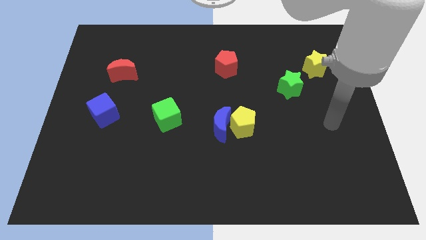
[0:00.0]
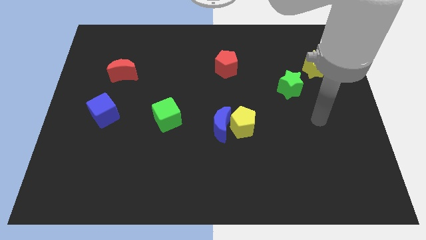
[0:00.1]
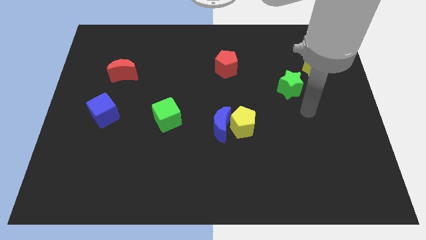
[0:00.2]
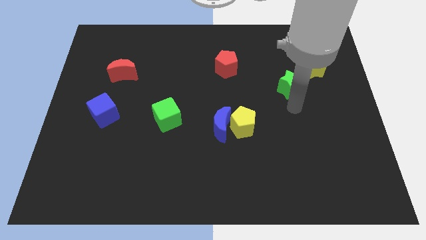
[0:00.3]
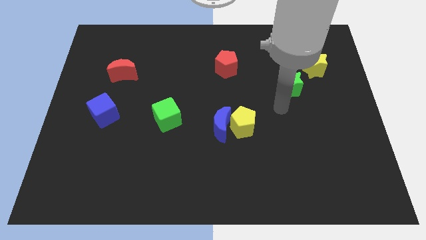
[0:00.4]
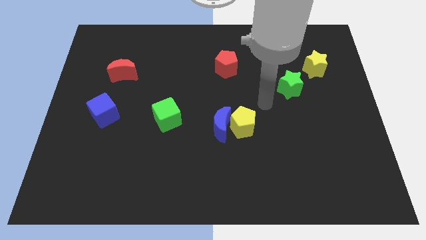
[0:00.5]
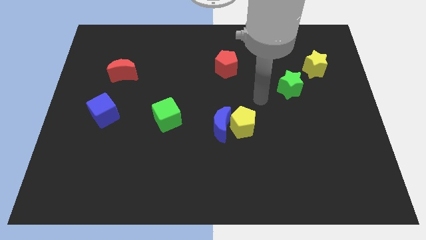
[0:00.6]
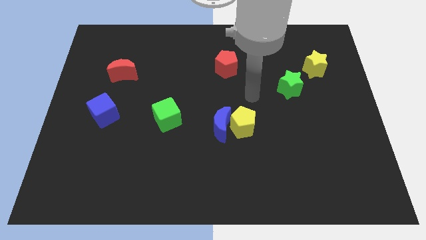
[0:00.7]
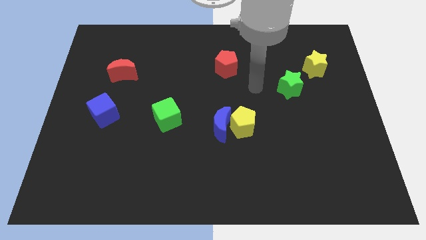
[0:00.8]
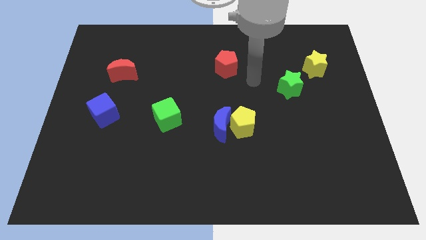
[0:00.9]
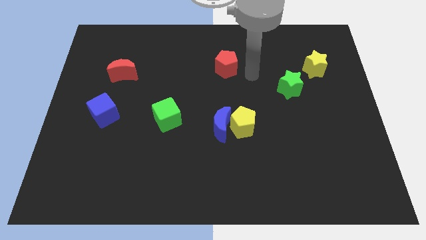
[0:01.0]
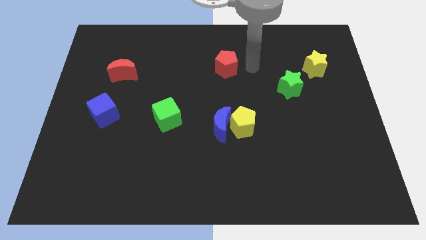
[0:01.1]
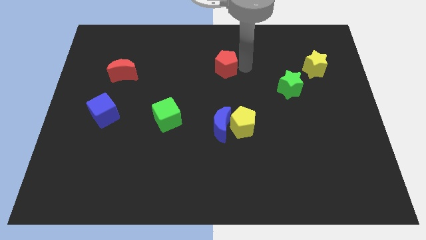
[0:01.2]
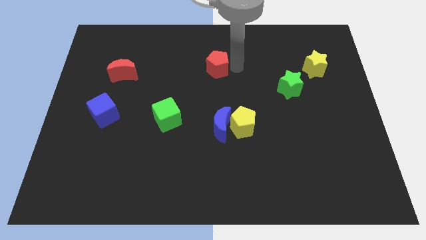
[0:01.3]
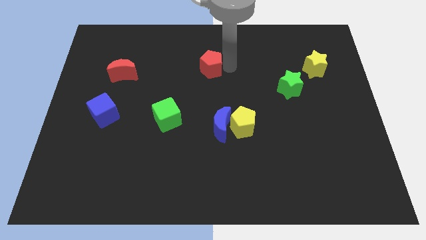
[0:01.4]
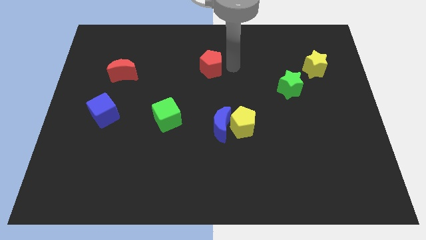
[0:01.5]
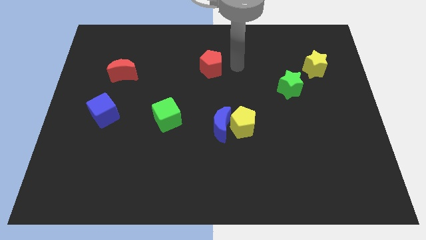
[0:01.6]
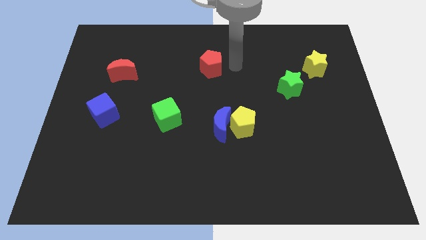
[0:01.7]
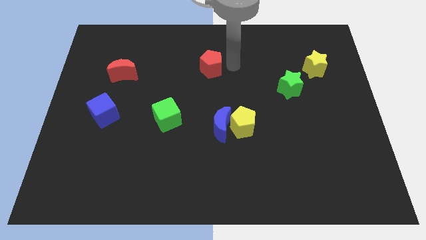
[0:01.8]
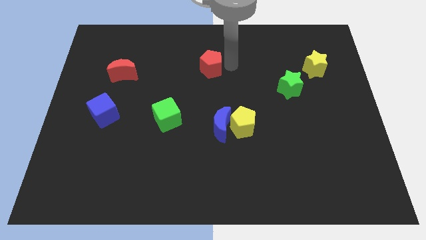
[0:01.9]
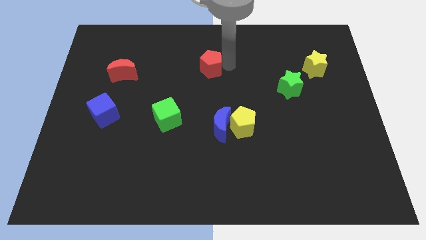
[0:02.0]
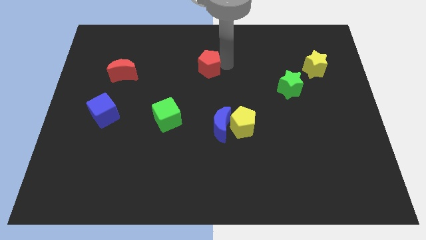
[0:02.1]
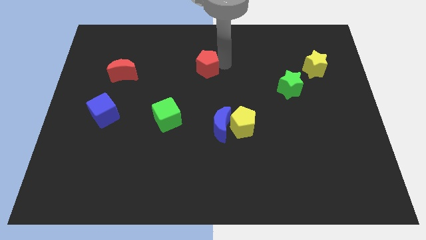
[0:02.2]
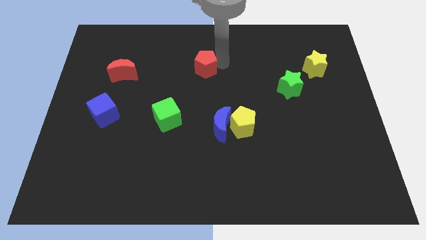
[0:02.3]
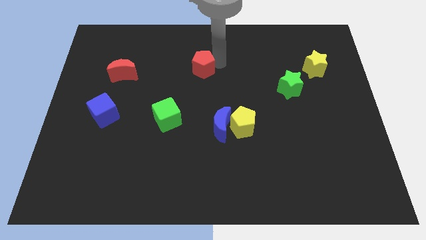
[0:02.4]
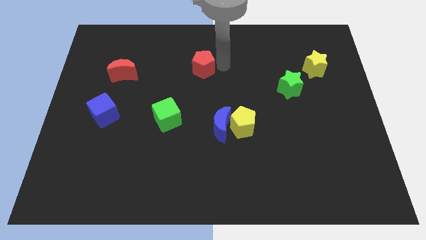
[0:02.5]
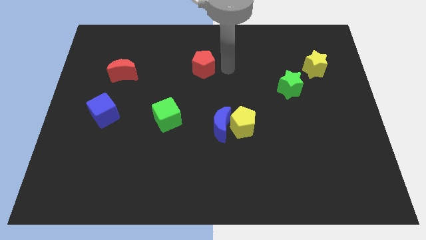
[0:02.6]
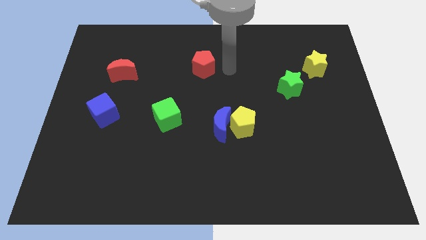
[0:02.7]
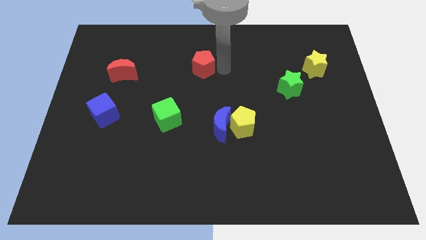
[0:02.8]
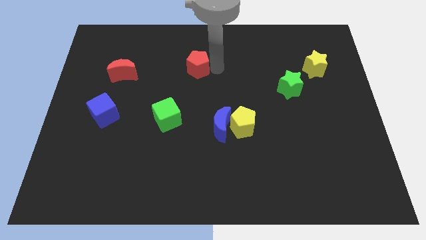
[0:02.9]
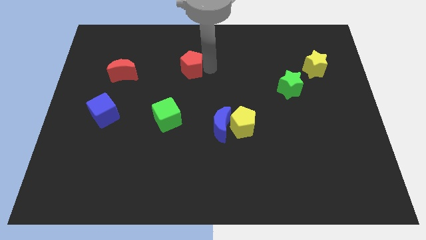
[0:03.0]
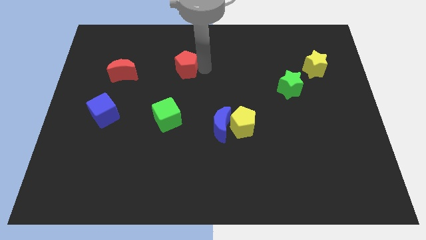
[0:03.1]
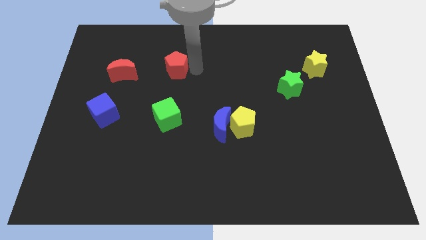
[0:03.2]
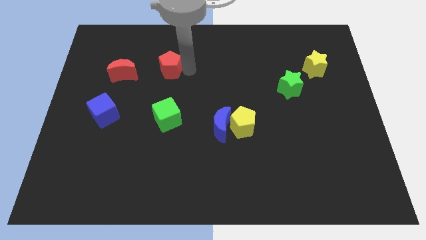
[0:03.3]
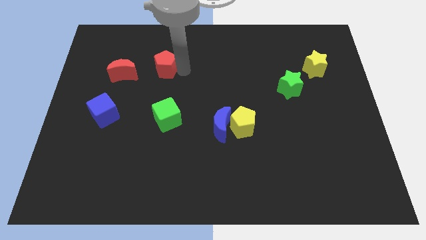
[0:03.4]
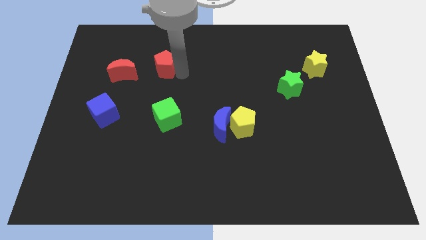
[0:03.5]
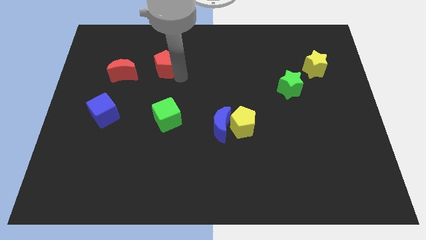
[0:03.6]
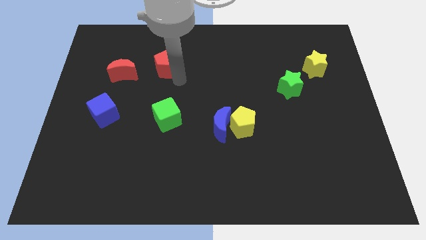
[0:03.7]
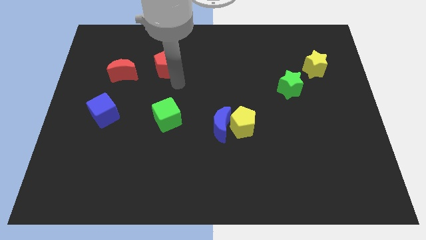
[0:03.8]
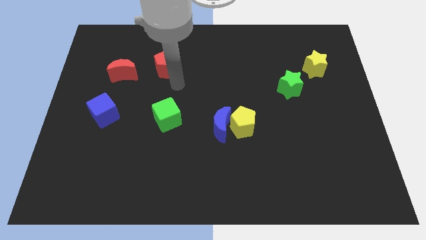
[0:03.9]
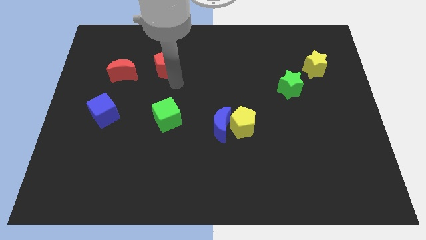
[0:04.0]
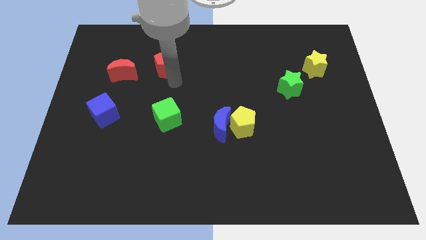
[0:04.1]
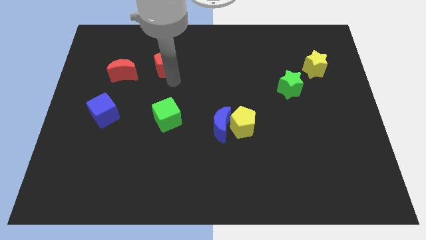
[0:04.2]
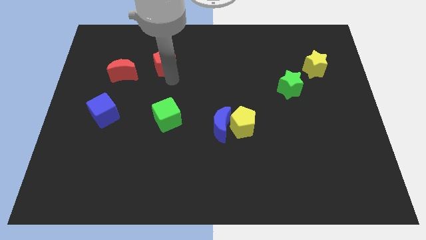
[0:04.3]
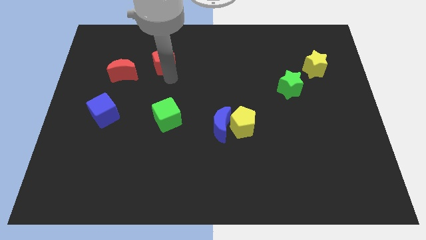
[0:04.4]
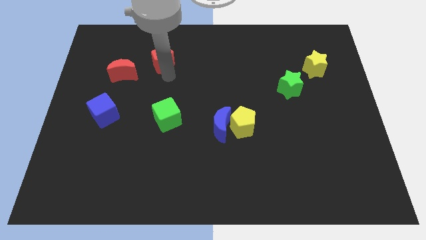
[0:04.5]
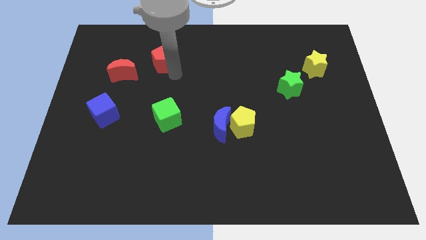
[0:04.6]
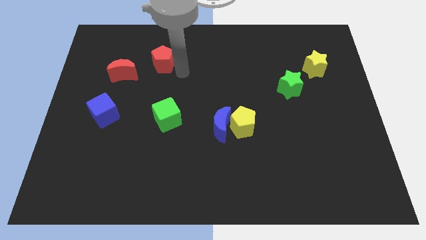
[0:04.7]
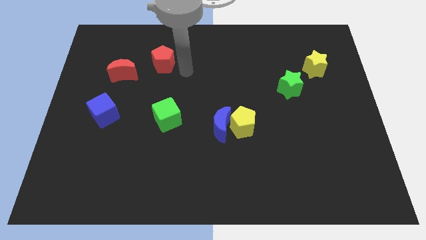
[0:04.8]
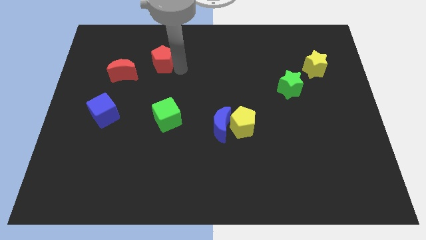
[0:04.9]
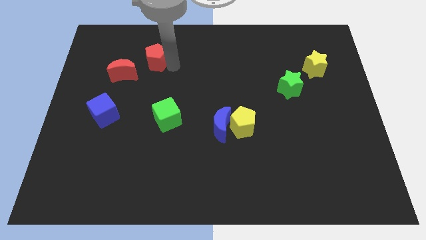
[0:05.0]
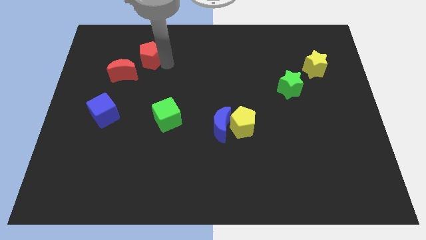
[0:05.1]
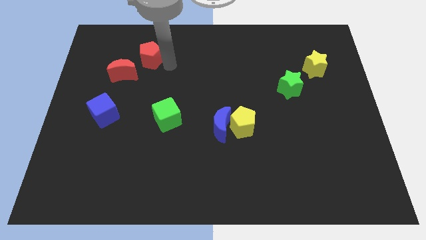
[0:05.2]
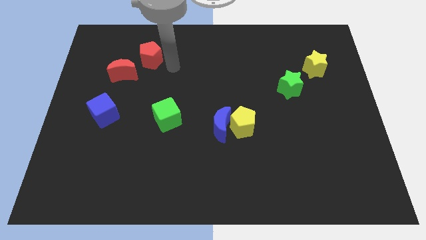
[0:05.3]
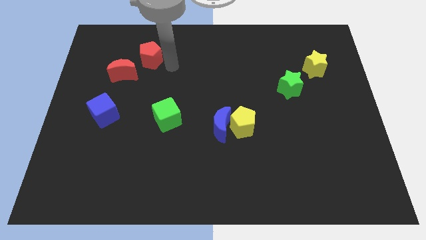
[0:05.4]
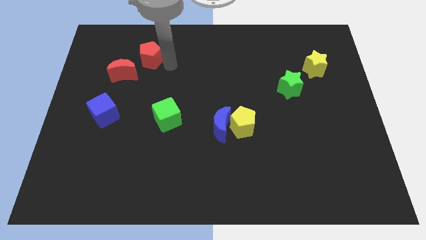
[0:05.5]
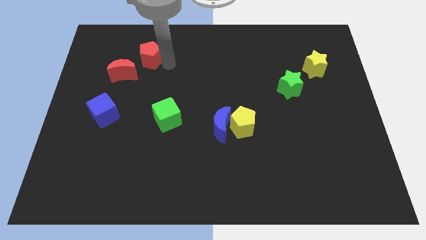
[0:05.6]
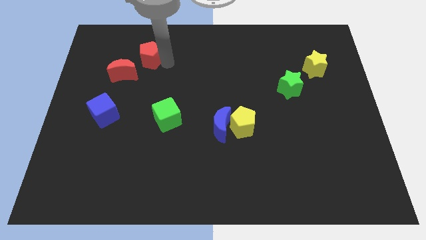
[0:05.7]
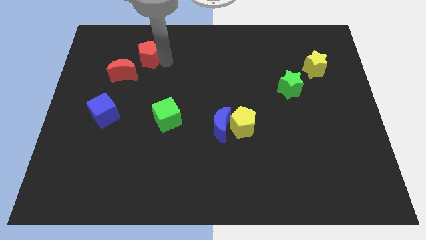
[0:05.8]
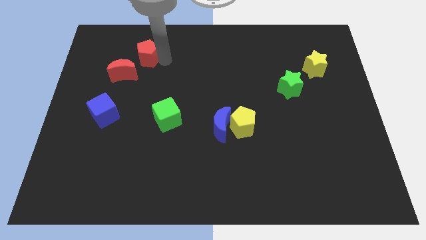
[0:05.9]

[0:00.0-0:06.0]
slide the red pentagon to the left

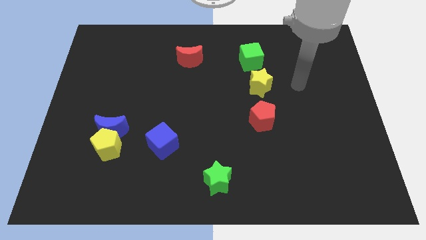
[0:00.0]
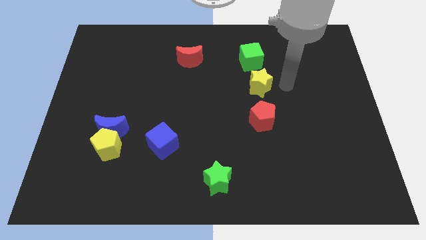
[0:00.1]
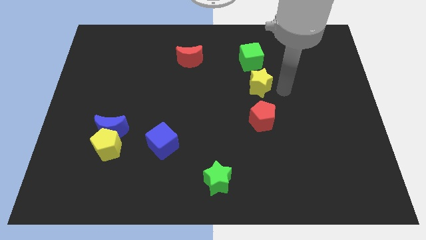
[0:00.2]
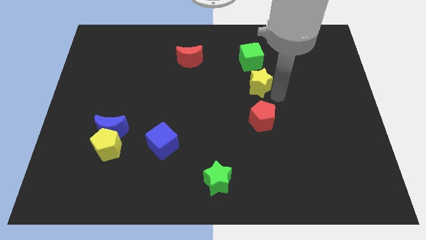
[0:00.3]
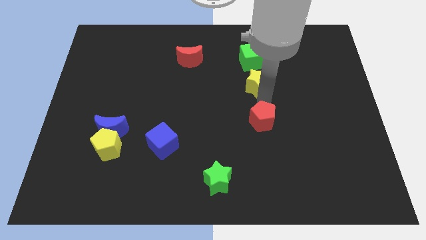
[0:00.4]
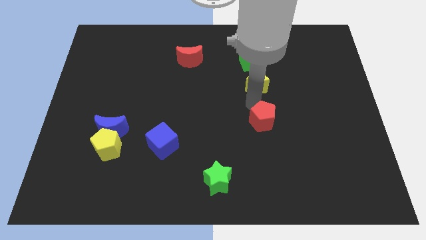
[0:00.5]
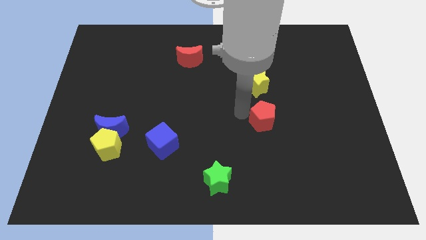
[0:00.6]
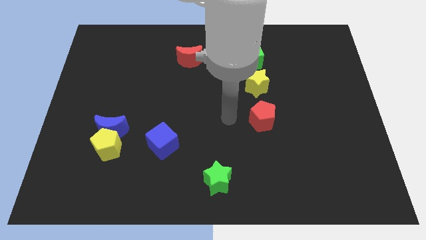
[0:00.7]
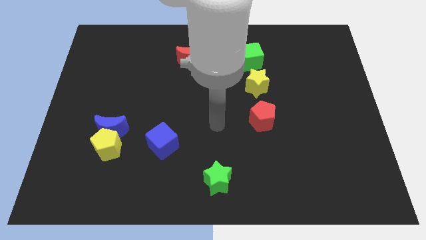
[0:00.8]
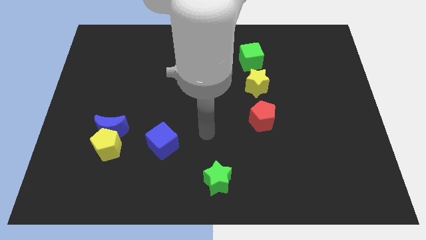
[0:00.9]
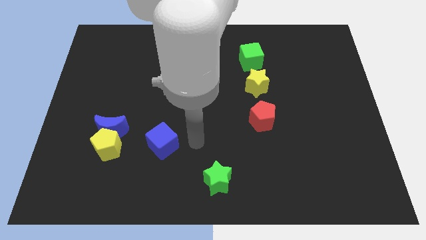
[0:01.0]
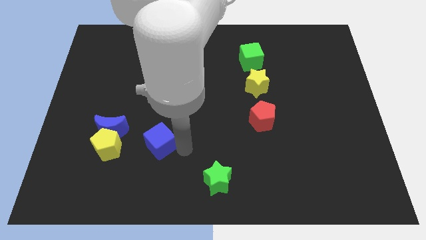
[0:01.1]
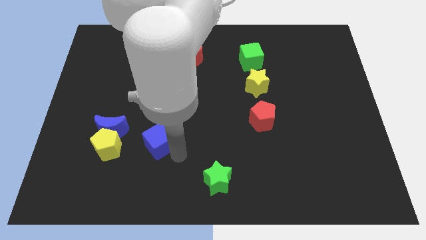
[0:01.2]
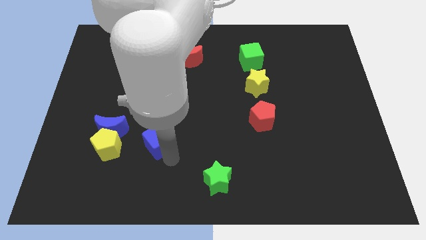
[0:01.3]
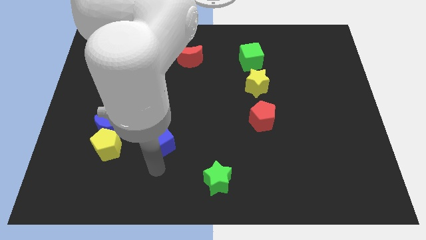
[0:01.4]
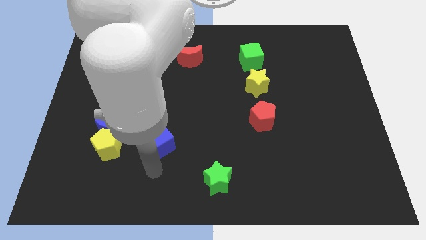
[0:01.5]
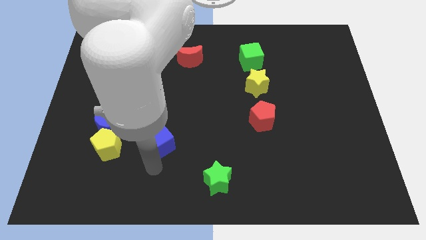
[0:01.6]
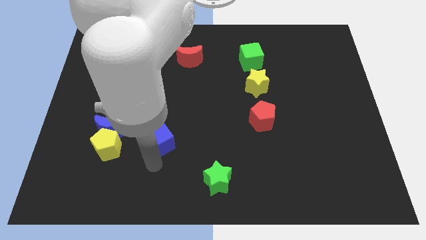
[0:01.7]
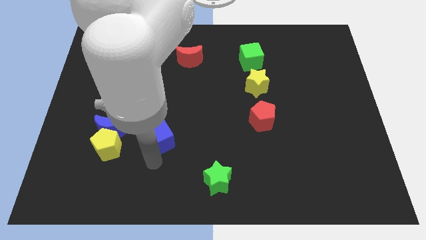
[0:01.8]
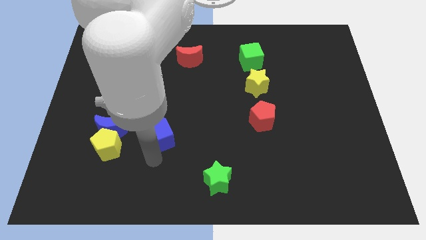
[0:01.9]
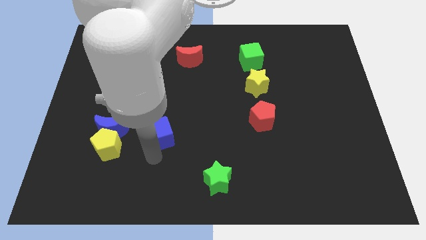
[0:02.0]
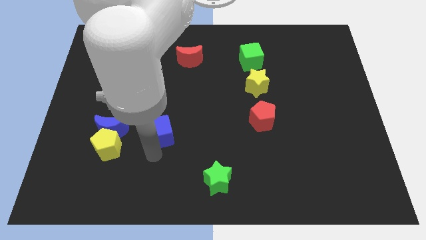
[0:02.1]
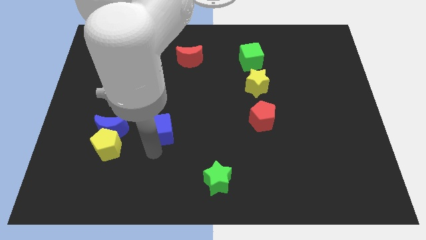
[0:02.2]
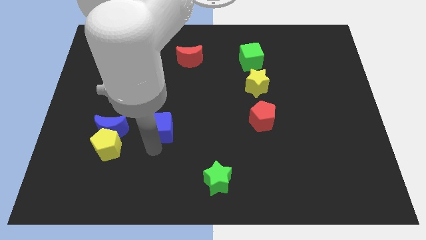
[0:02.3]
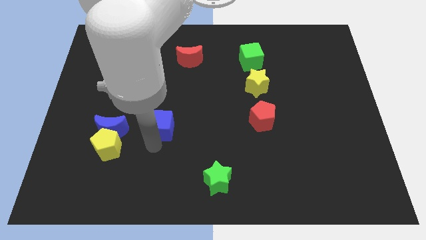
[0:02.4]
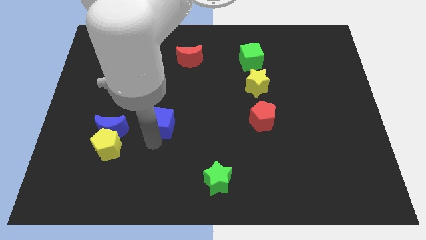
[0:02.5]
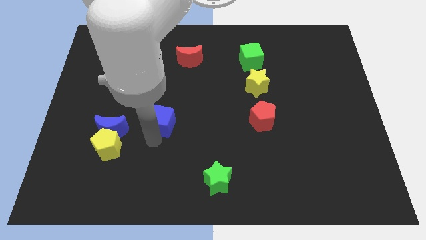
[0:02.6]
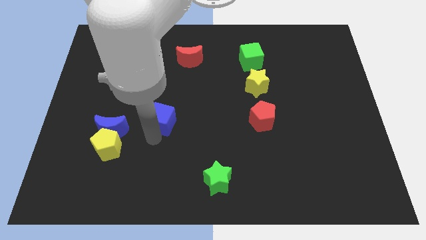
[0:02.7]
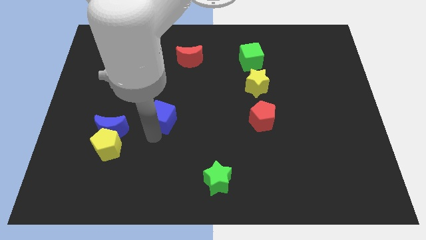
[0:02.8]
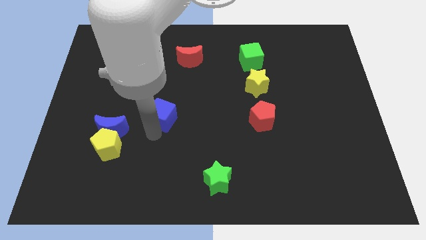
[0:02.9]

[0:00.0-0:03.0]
slightly move the blue cube up
